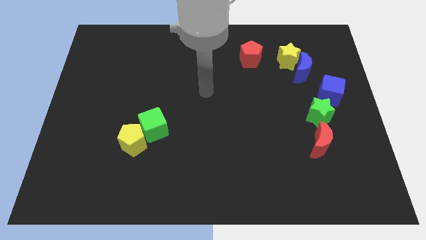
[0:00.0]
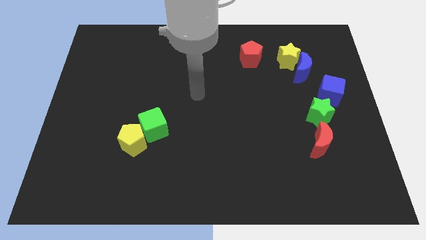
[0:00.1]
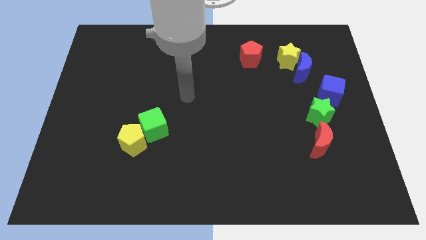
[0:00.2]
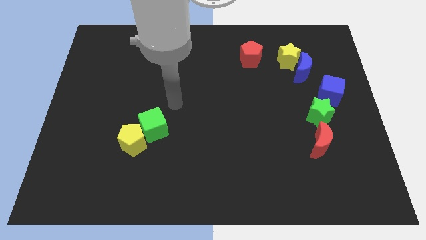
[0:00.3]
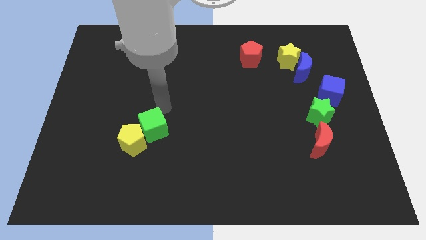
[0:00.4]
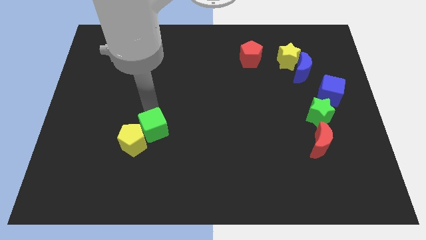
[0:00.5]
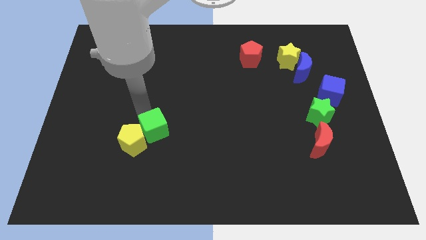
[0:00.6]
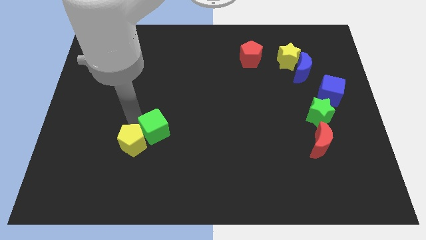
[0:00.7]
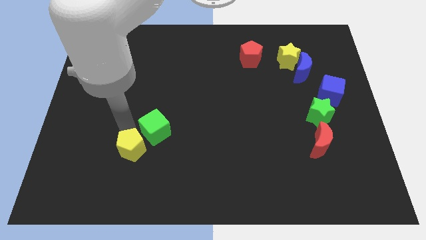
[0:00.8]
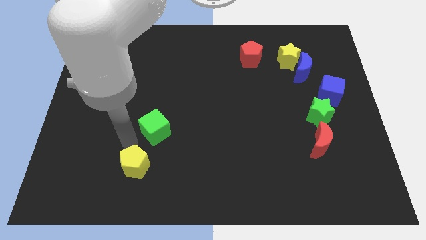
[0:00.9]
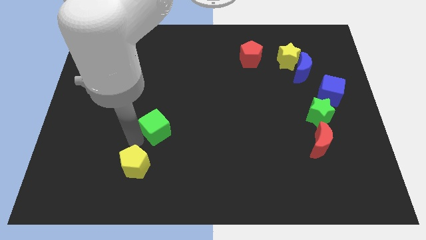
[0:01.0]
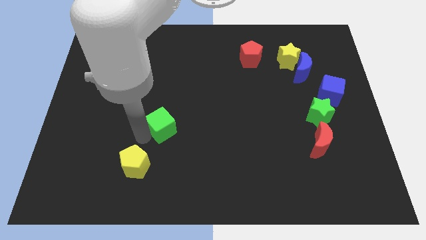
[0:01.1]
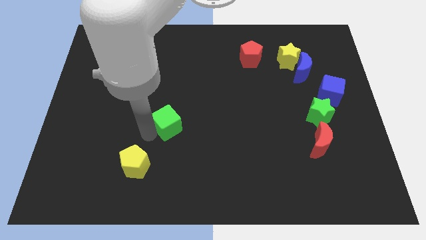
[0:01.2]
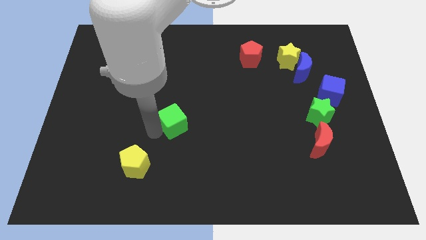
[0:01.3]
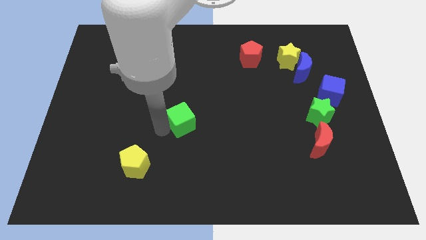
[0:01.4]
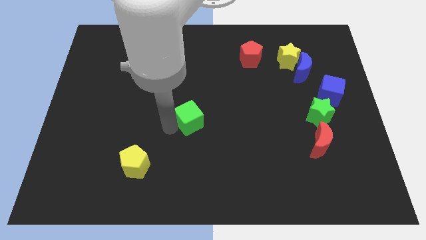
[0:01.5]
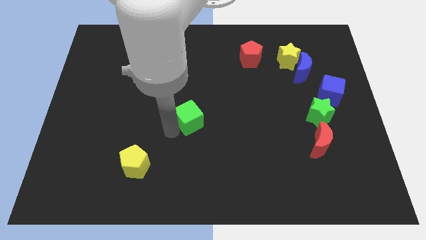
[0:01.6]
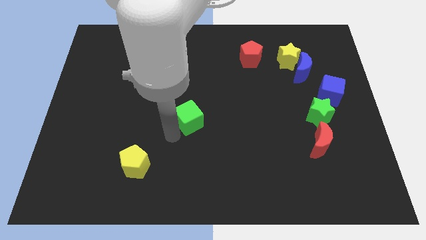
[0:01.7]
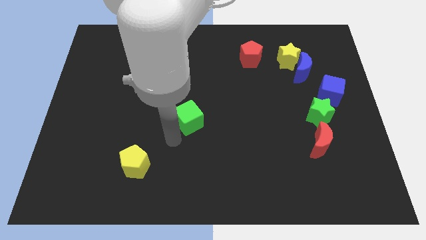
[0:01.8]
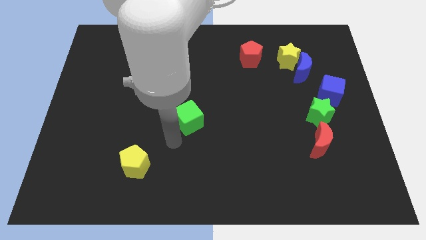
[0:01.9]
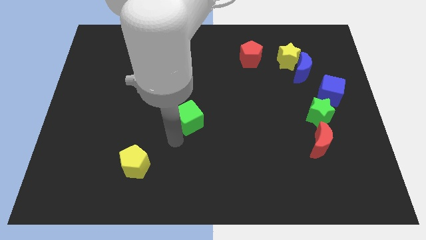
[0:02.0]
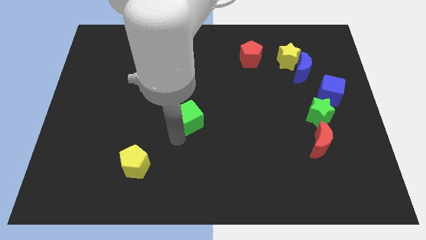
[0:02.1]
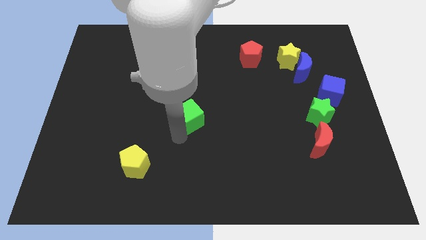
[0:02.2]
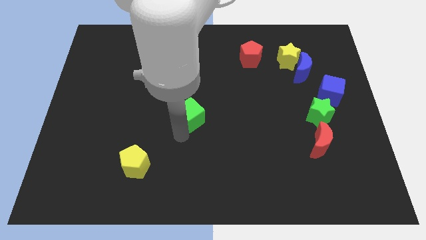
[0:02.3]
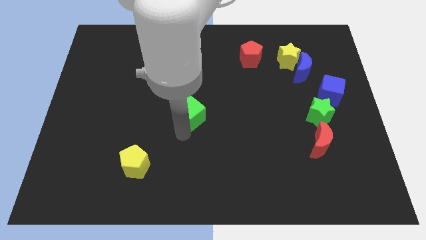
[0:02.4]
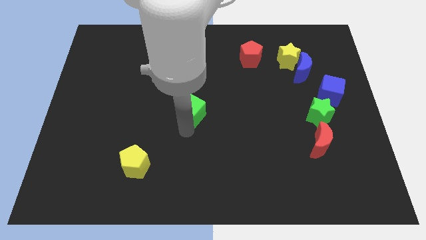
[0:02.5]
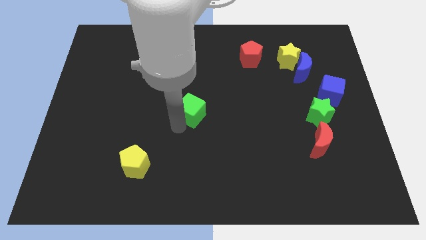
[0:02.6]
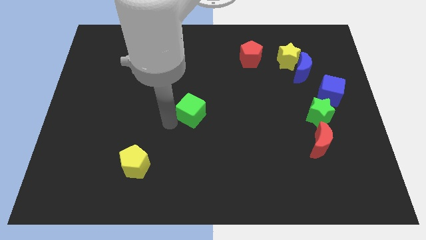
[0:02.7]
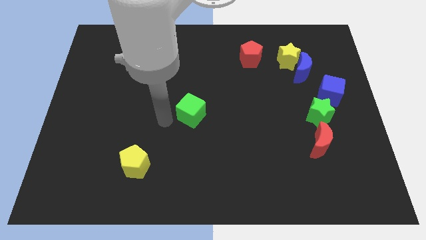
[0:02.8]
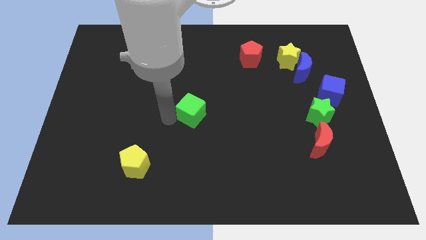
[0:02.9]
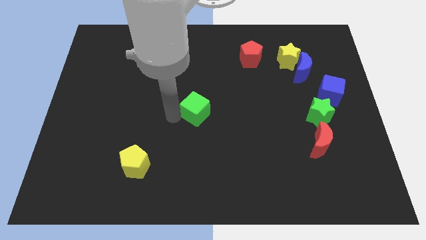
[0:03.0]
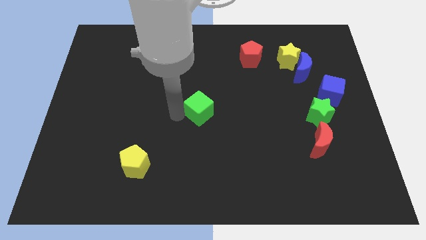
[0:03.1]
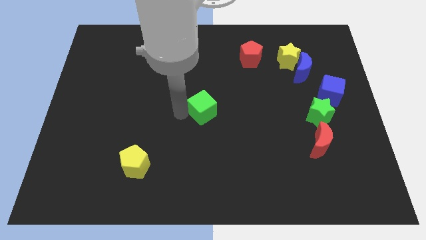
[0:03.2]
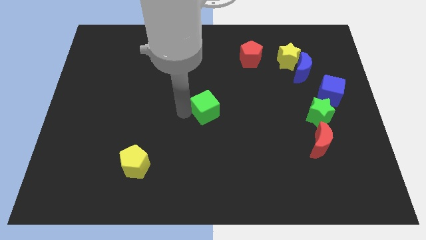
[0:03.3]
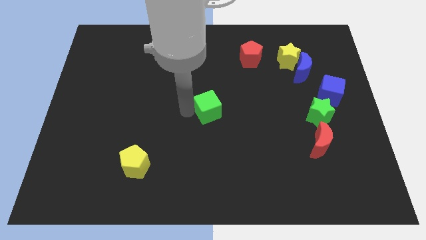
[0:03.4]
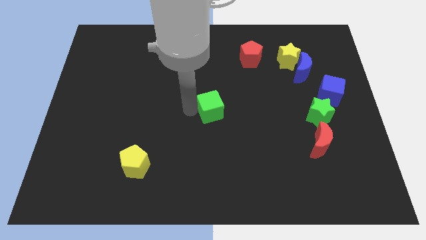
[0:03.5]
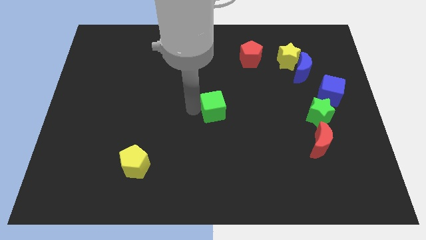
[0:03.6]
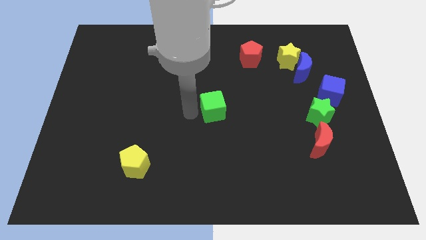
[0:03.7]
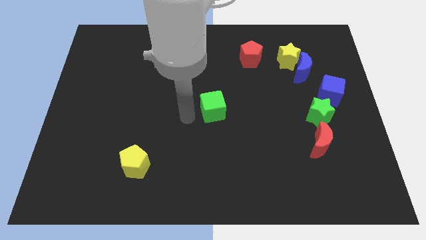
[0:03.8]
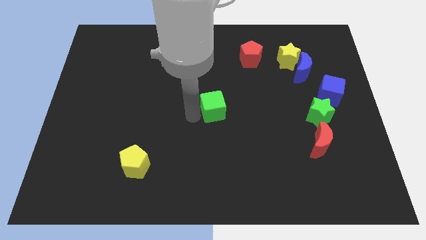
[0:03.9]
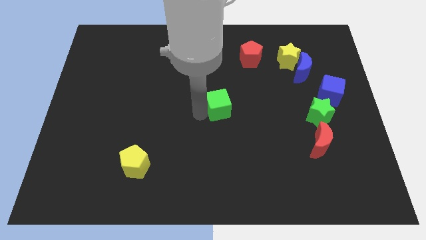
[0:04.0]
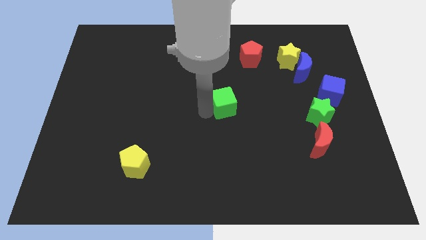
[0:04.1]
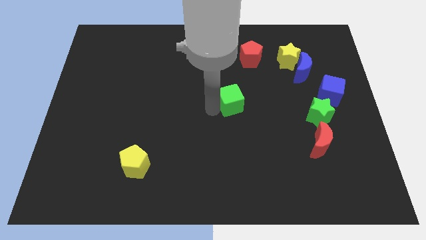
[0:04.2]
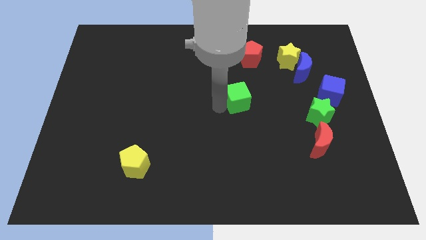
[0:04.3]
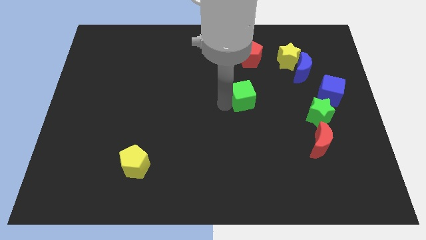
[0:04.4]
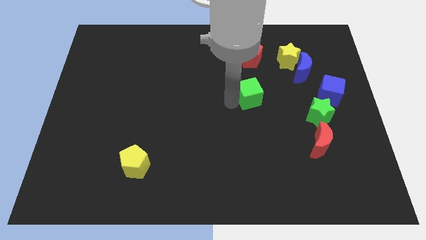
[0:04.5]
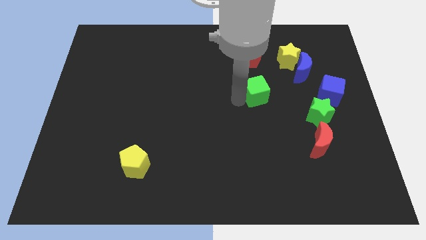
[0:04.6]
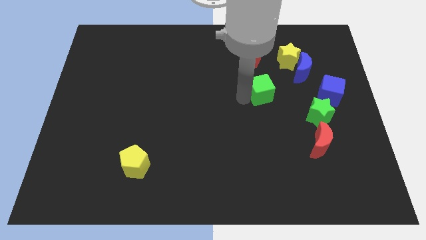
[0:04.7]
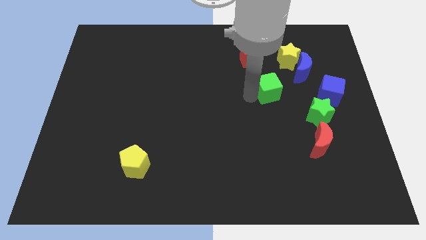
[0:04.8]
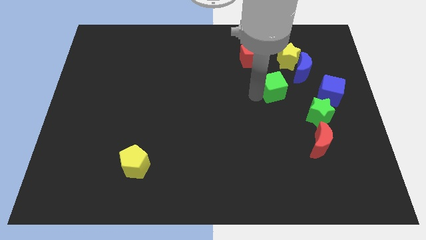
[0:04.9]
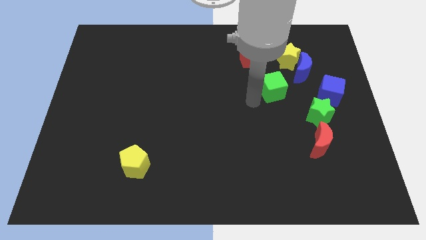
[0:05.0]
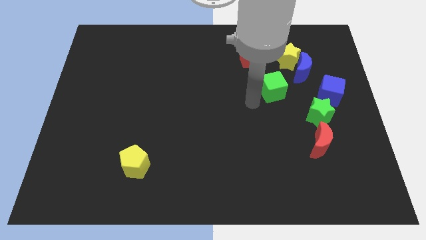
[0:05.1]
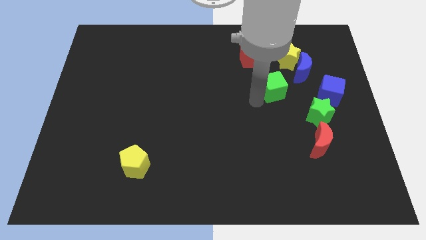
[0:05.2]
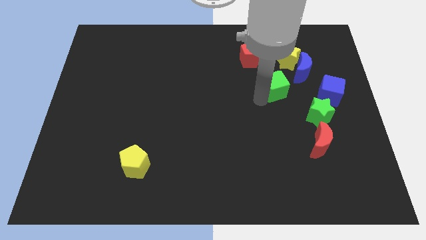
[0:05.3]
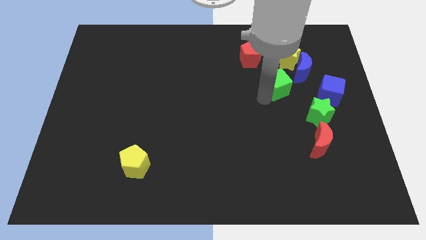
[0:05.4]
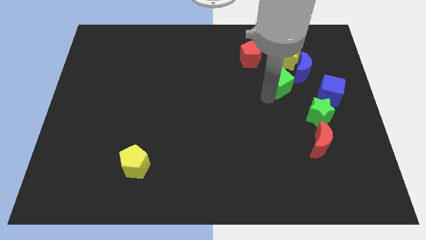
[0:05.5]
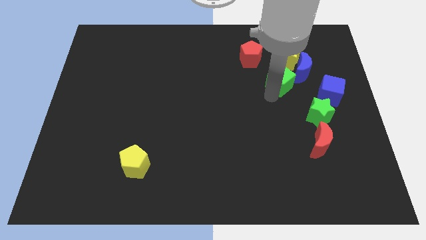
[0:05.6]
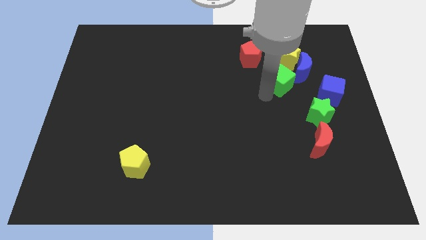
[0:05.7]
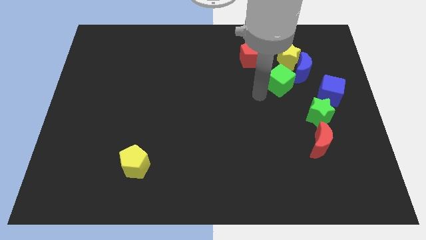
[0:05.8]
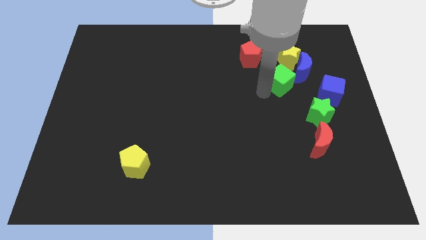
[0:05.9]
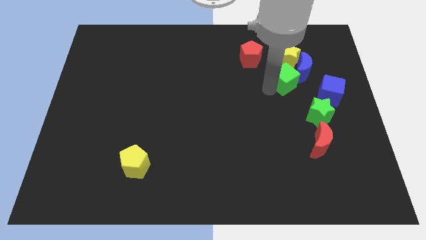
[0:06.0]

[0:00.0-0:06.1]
put the green cube close to the blue moon

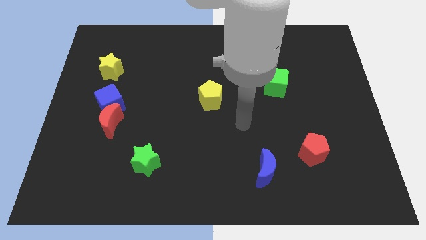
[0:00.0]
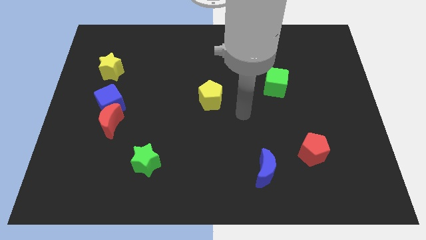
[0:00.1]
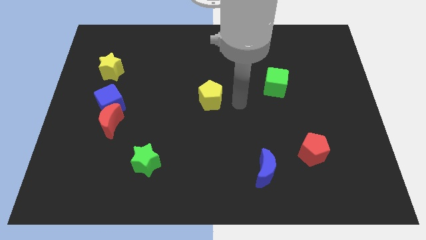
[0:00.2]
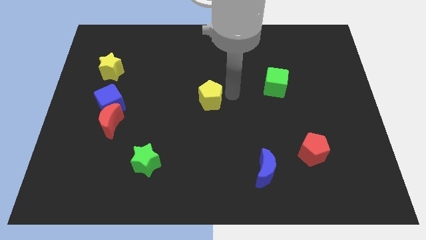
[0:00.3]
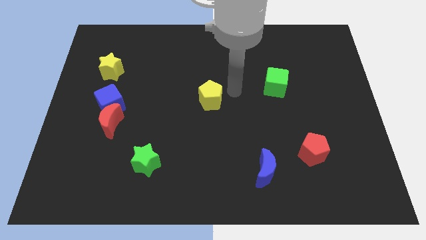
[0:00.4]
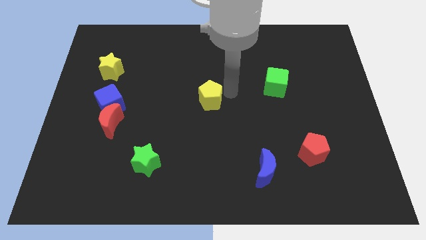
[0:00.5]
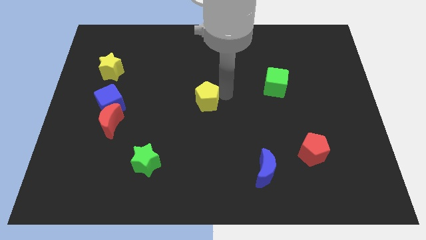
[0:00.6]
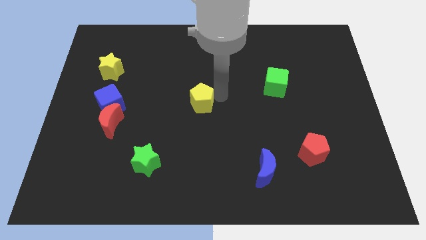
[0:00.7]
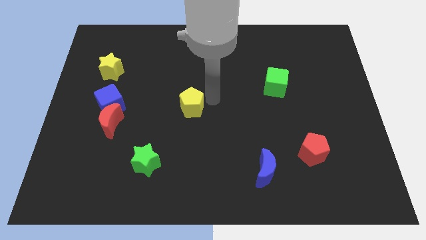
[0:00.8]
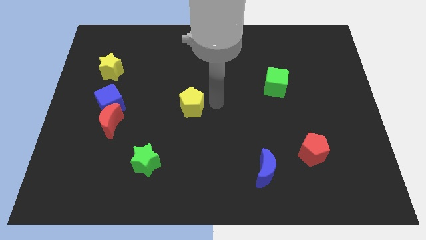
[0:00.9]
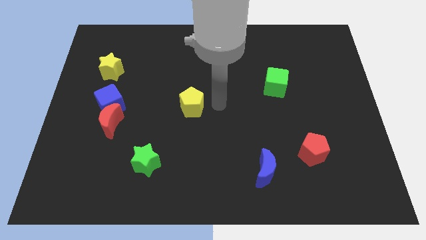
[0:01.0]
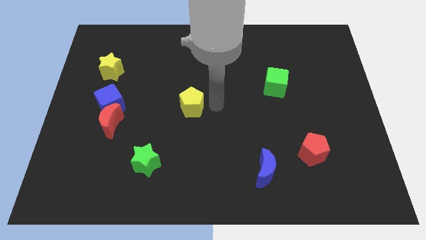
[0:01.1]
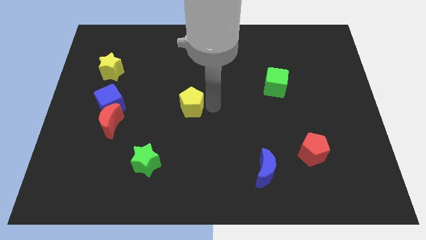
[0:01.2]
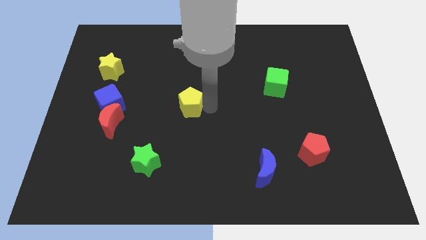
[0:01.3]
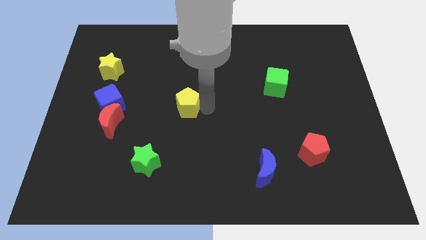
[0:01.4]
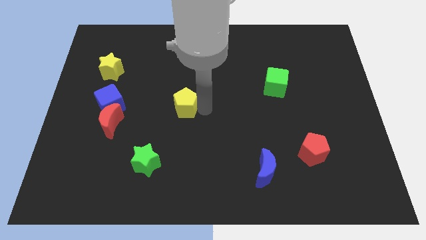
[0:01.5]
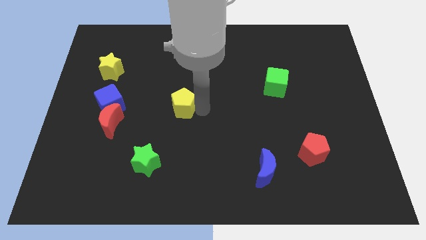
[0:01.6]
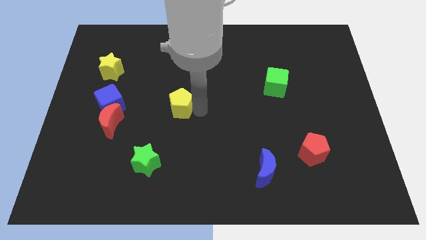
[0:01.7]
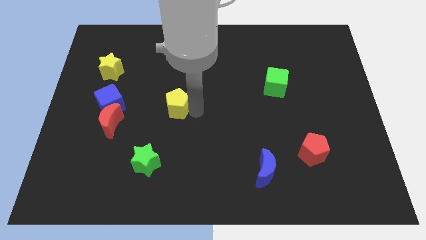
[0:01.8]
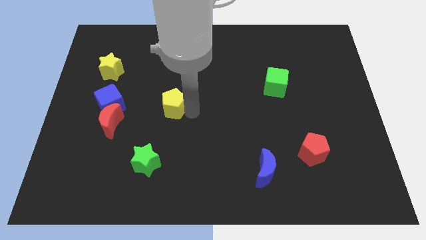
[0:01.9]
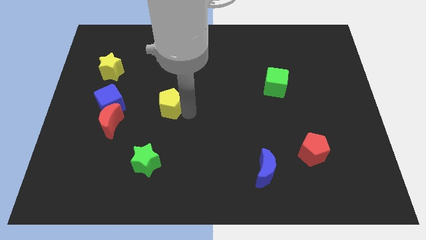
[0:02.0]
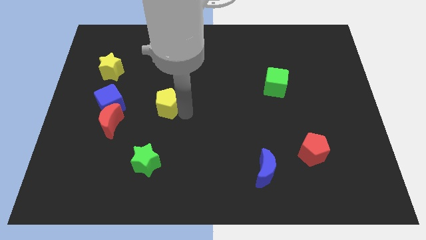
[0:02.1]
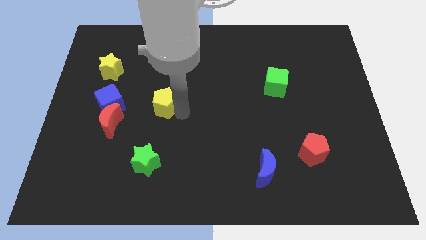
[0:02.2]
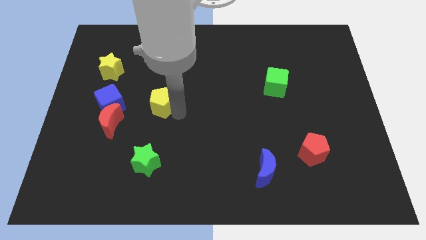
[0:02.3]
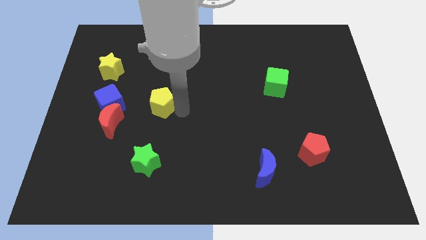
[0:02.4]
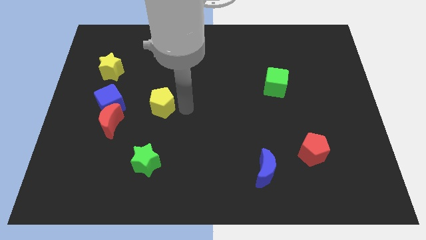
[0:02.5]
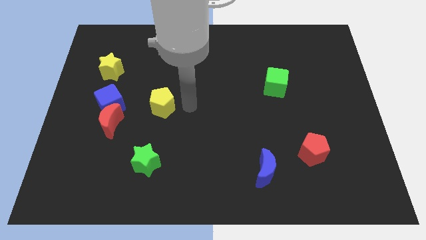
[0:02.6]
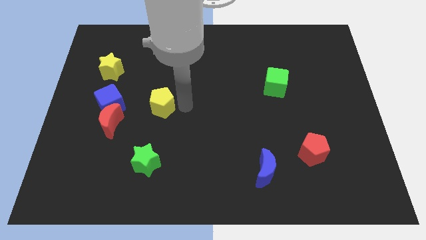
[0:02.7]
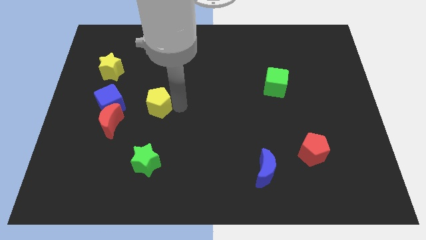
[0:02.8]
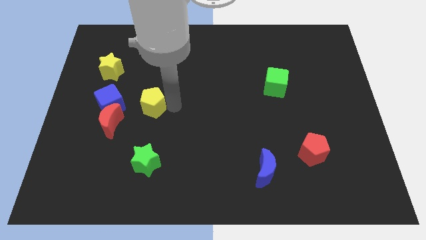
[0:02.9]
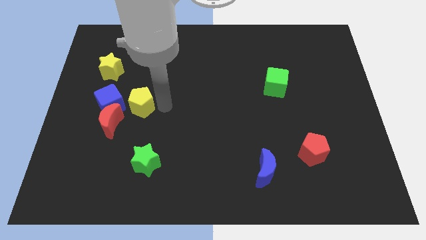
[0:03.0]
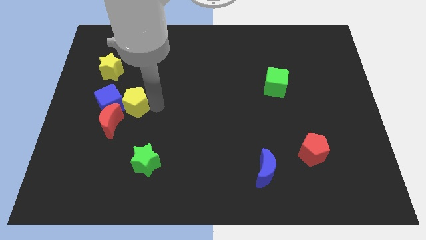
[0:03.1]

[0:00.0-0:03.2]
push the yellow pentagon close to the blue cube
